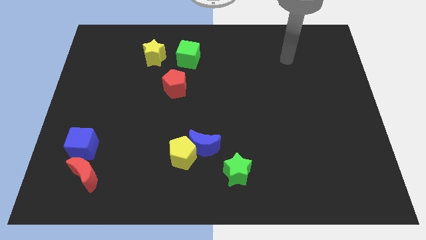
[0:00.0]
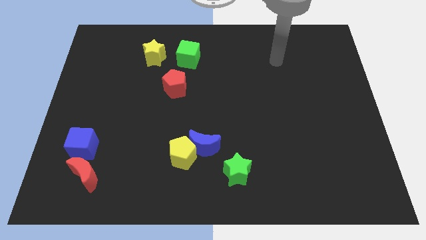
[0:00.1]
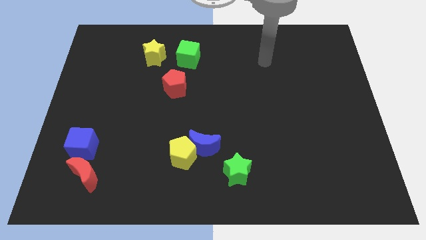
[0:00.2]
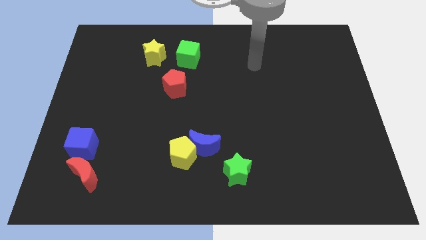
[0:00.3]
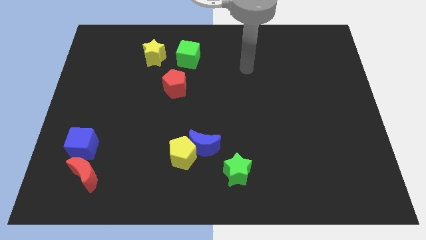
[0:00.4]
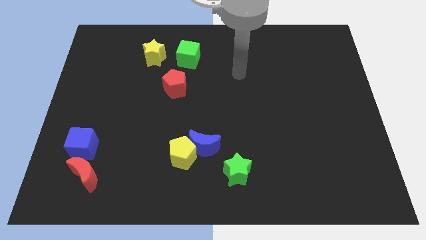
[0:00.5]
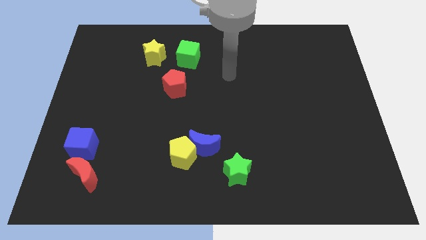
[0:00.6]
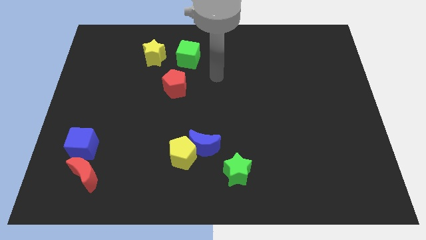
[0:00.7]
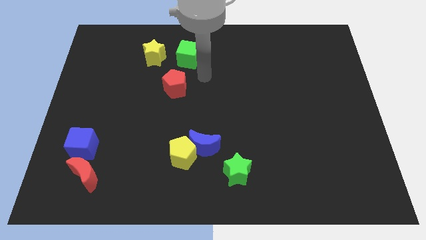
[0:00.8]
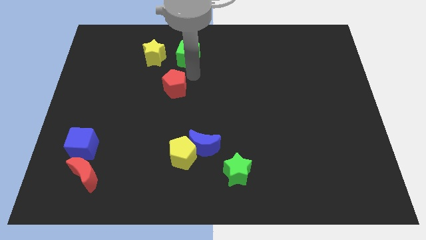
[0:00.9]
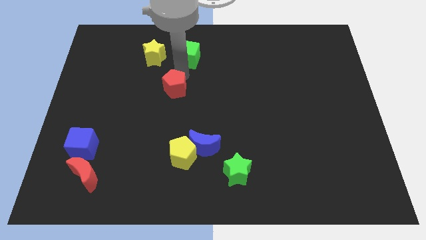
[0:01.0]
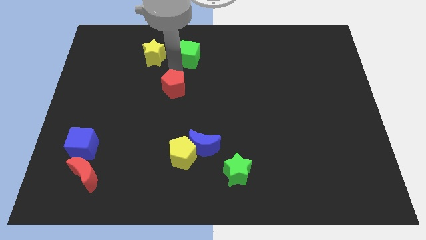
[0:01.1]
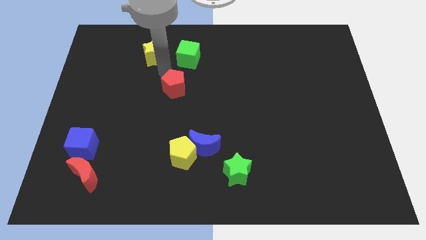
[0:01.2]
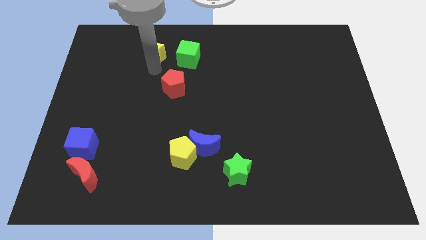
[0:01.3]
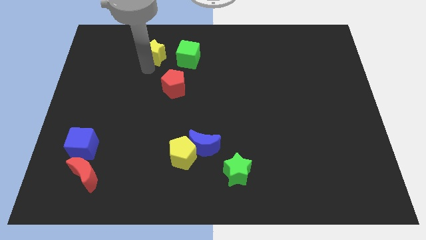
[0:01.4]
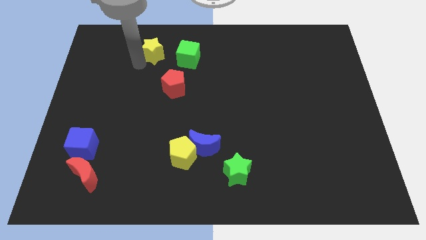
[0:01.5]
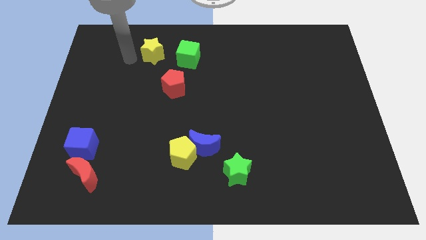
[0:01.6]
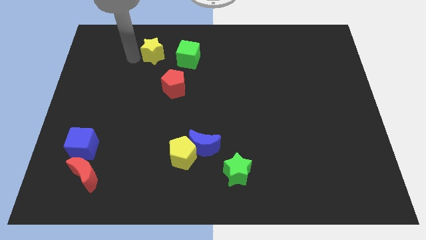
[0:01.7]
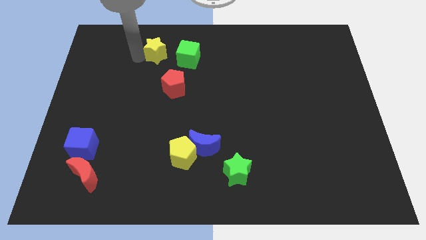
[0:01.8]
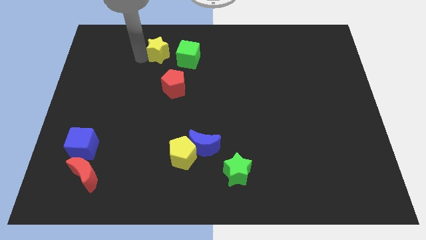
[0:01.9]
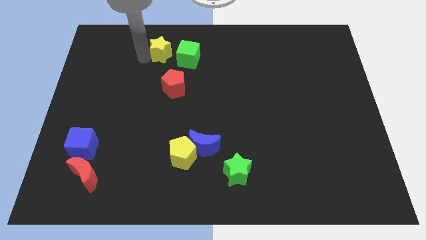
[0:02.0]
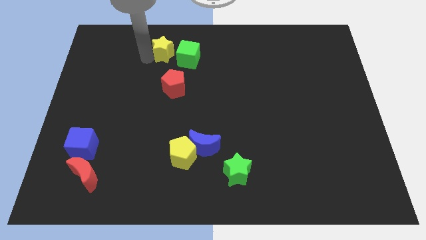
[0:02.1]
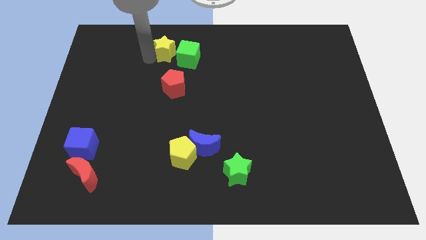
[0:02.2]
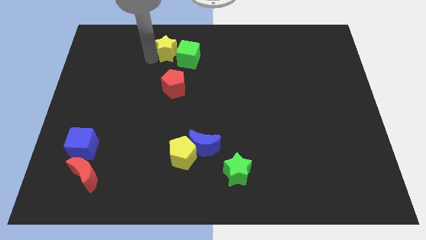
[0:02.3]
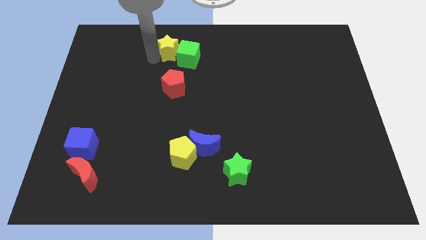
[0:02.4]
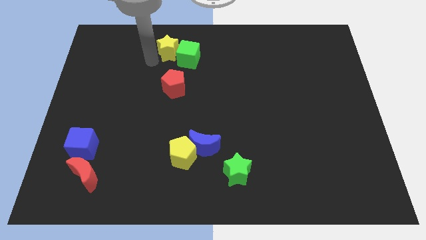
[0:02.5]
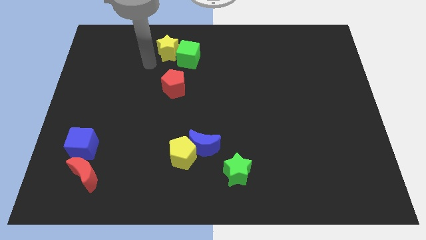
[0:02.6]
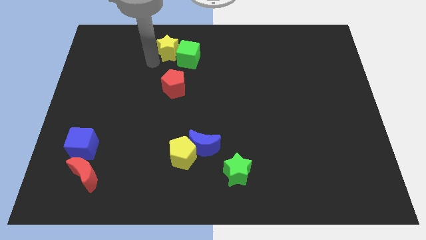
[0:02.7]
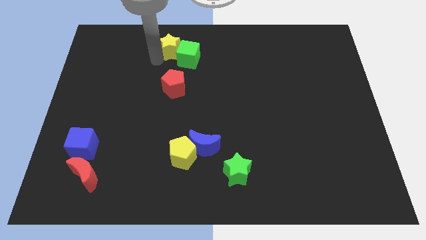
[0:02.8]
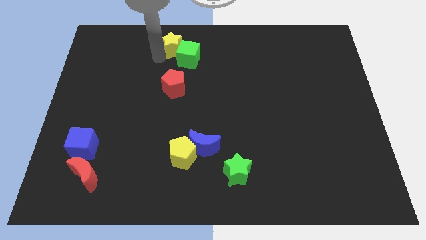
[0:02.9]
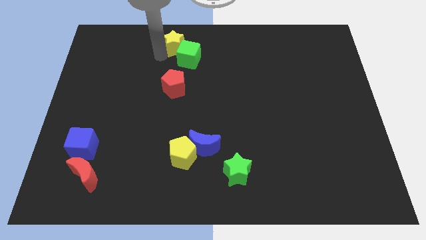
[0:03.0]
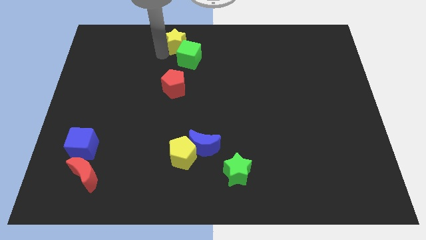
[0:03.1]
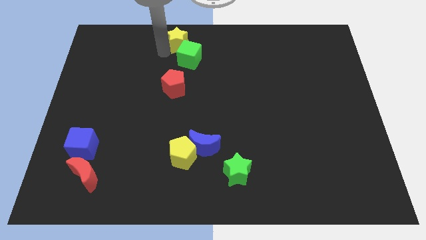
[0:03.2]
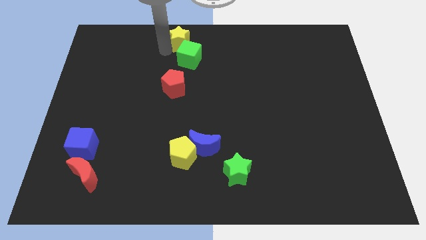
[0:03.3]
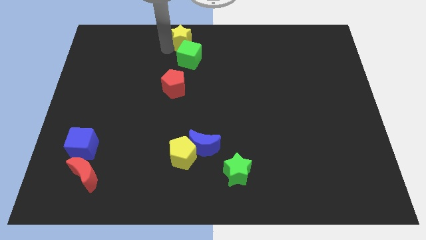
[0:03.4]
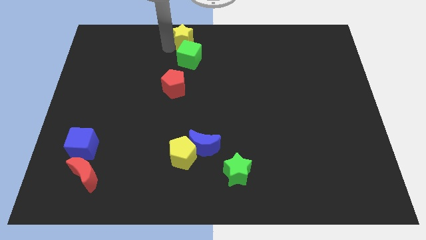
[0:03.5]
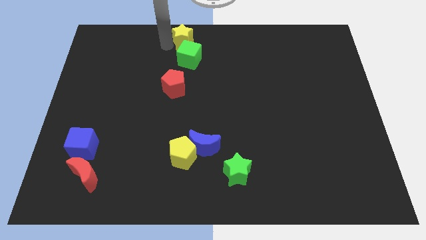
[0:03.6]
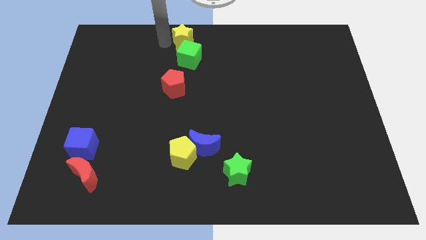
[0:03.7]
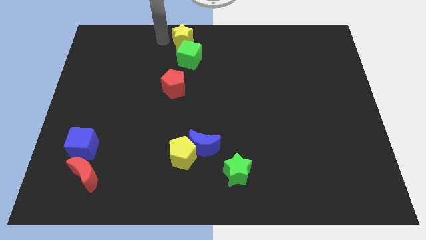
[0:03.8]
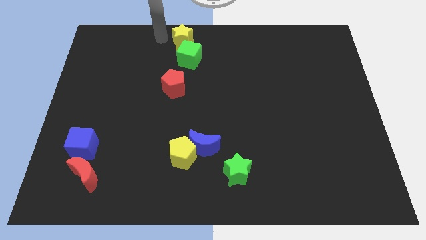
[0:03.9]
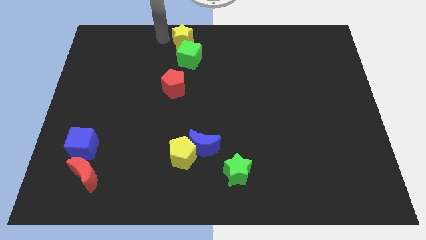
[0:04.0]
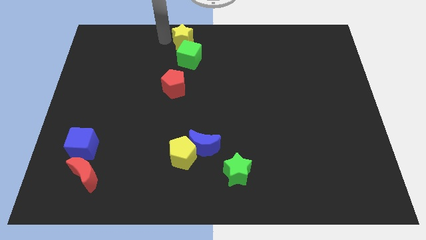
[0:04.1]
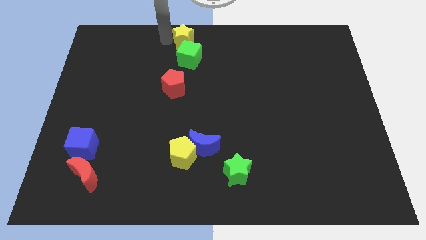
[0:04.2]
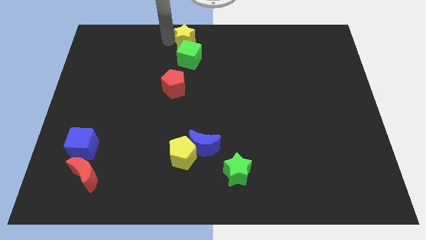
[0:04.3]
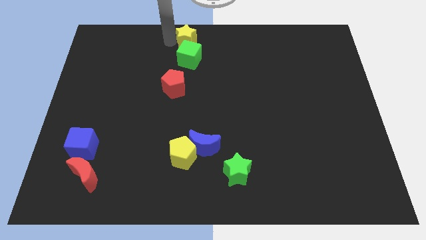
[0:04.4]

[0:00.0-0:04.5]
slightly slide the yellow star to the right

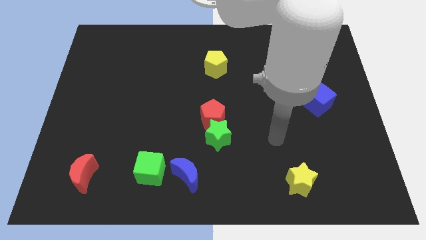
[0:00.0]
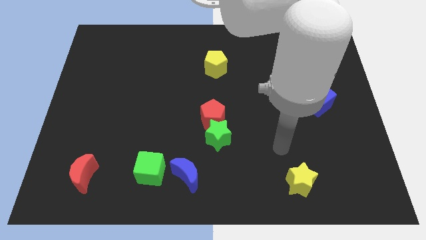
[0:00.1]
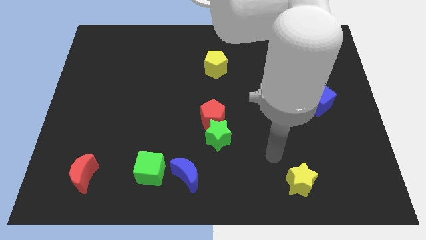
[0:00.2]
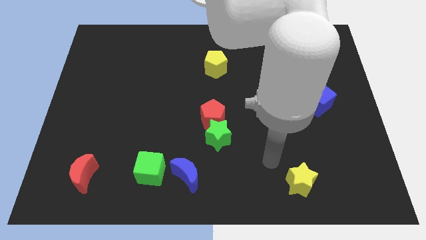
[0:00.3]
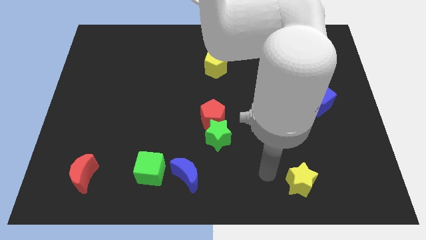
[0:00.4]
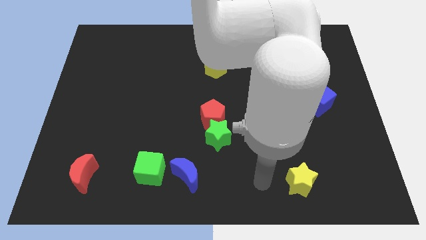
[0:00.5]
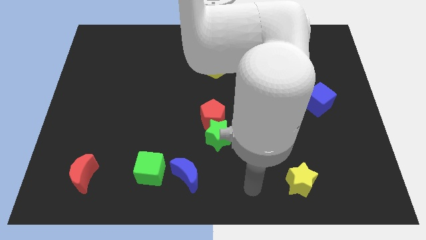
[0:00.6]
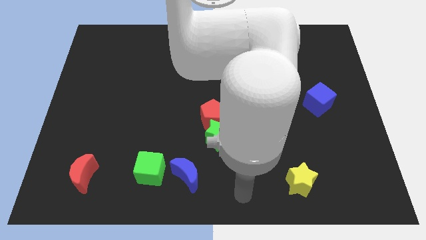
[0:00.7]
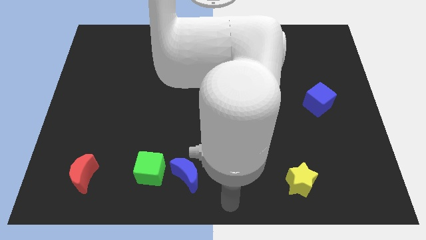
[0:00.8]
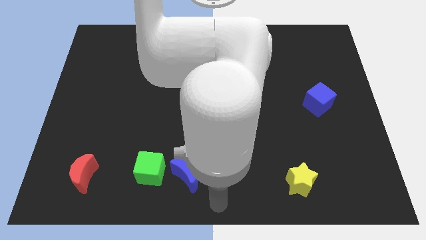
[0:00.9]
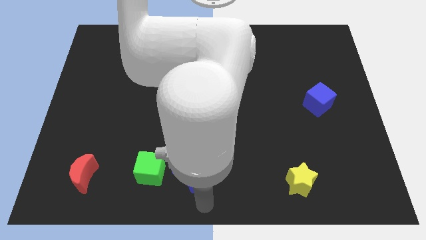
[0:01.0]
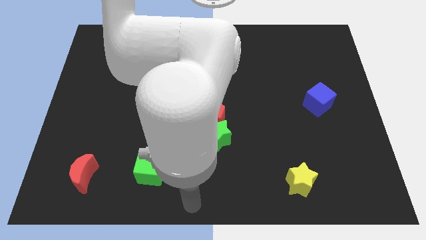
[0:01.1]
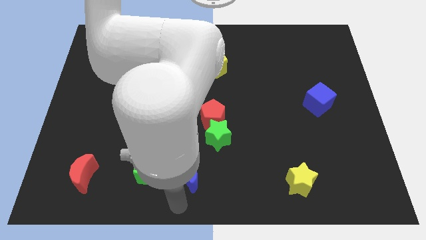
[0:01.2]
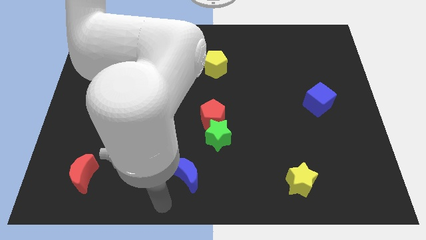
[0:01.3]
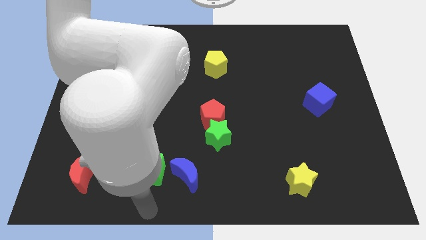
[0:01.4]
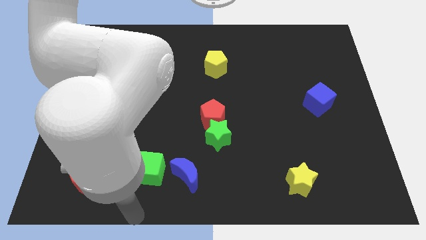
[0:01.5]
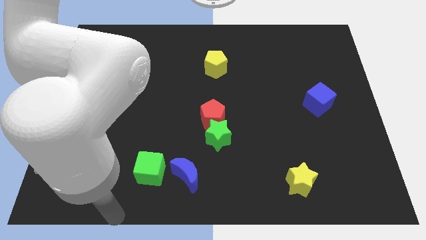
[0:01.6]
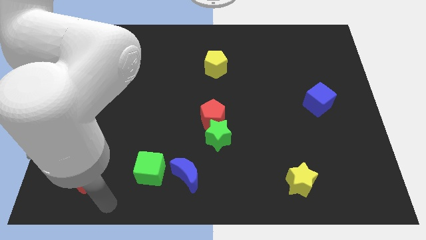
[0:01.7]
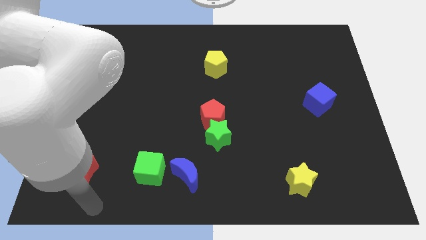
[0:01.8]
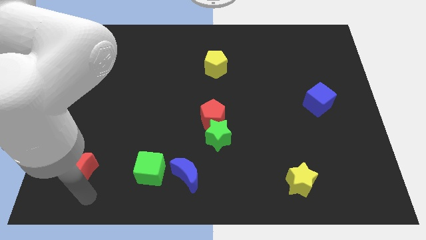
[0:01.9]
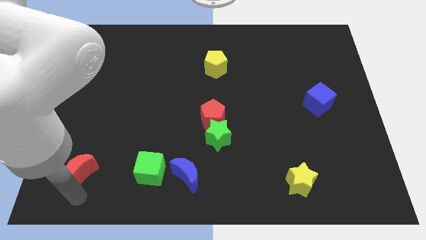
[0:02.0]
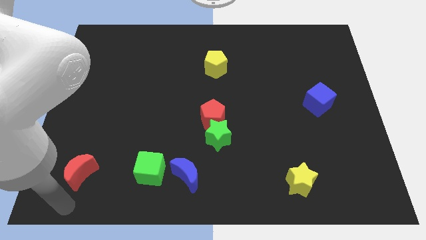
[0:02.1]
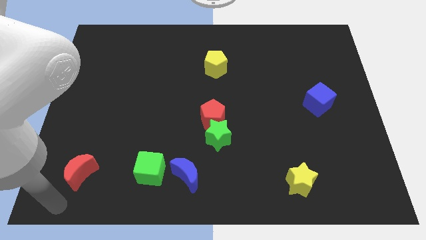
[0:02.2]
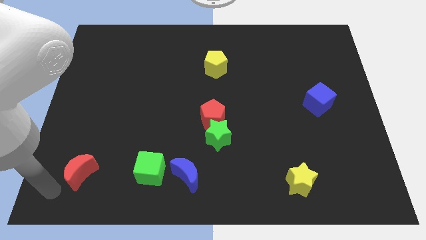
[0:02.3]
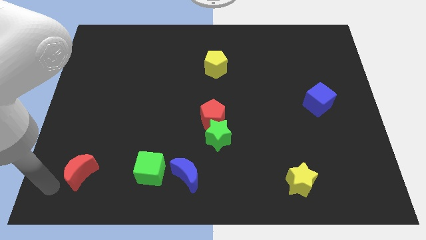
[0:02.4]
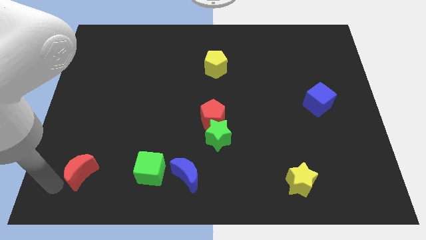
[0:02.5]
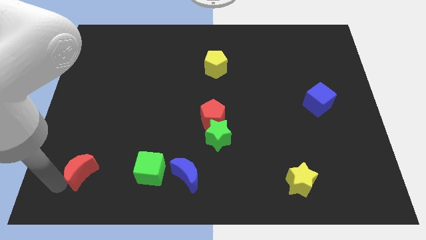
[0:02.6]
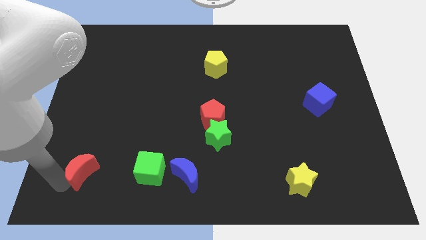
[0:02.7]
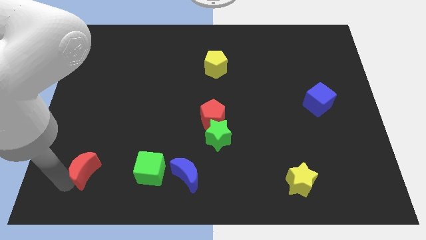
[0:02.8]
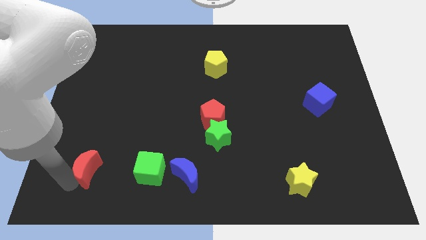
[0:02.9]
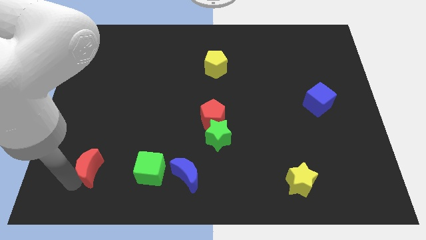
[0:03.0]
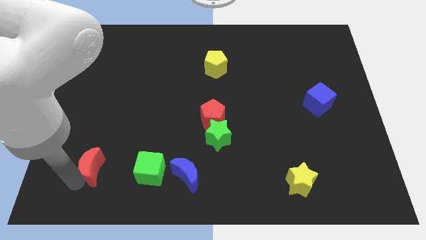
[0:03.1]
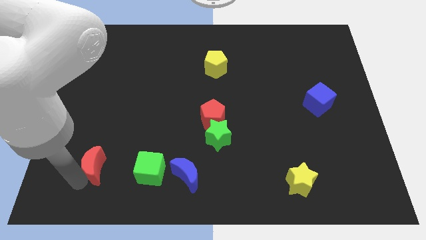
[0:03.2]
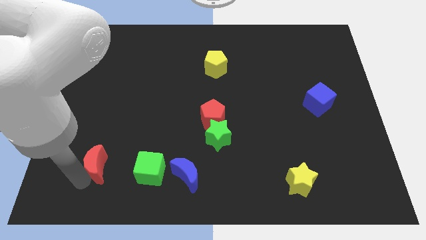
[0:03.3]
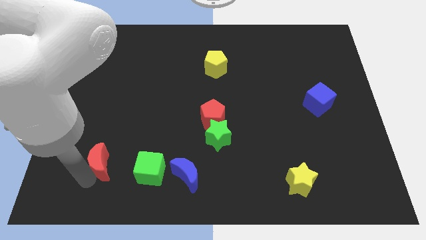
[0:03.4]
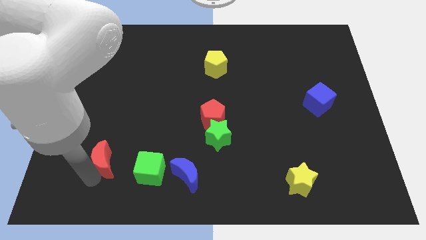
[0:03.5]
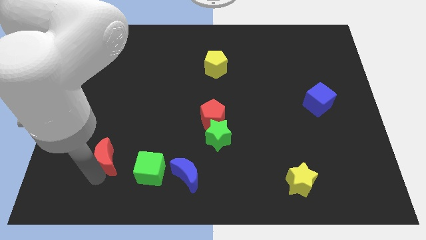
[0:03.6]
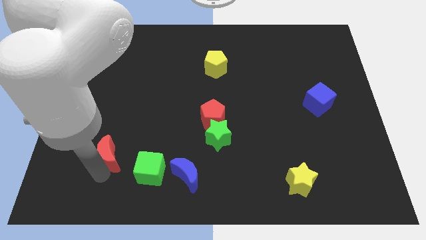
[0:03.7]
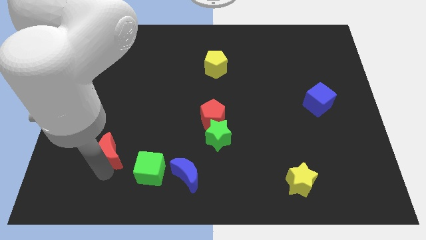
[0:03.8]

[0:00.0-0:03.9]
slide the red moon upwards and then to the right slightly
